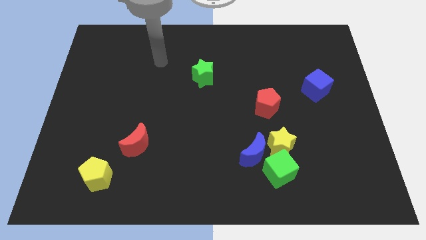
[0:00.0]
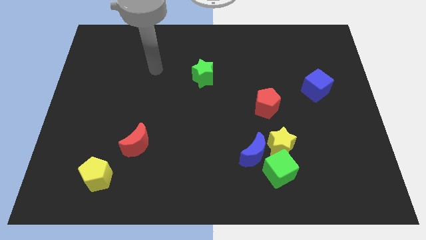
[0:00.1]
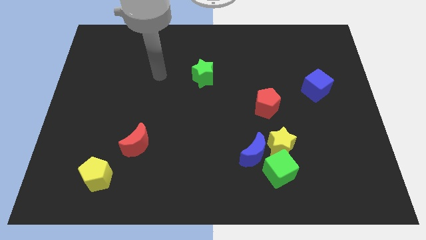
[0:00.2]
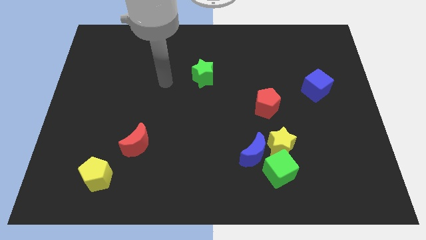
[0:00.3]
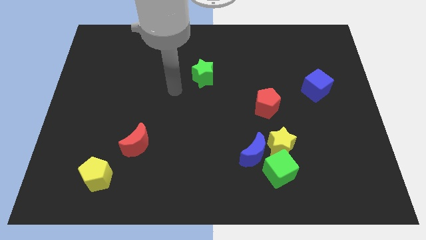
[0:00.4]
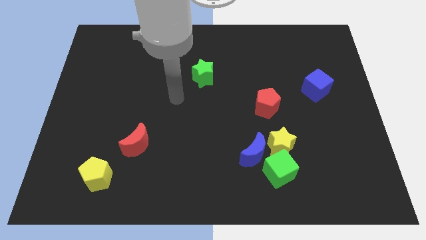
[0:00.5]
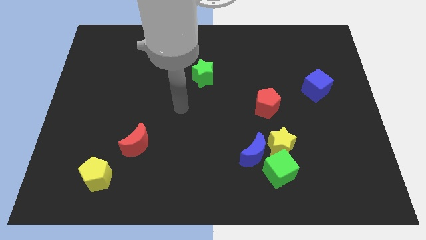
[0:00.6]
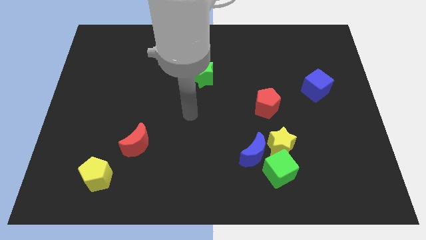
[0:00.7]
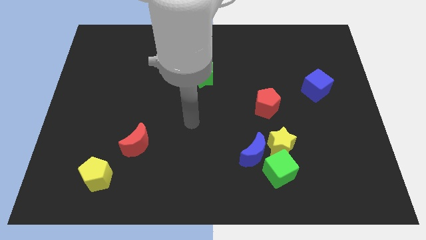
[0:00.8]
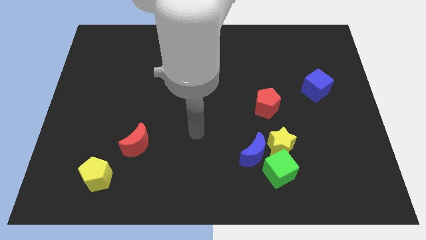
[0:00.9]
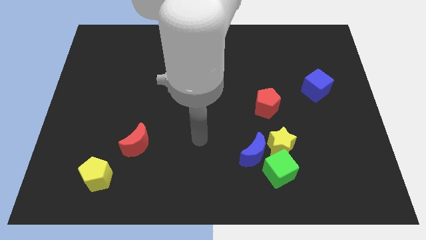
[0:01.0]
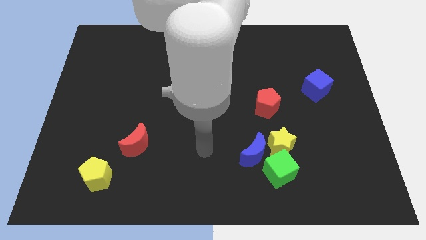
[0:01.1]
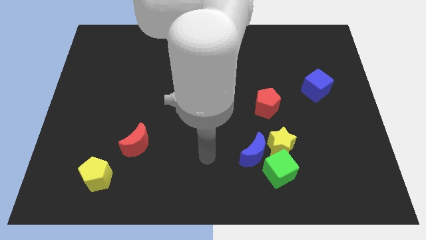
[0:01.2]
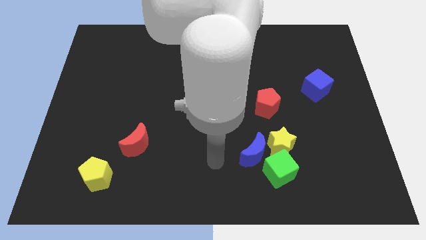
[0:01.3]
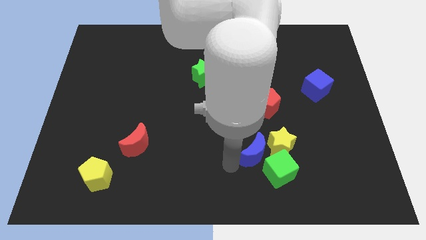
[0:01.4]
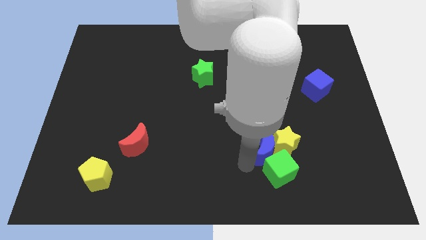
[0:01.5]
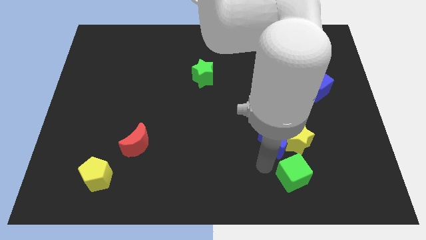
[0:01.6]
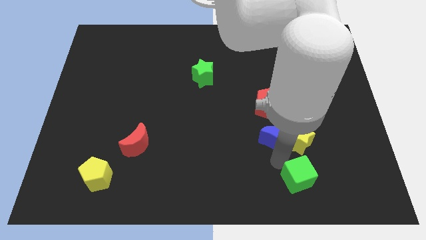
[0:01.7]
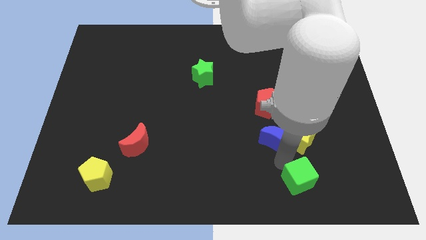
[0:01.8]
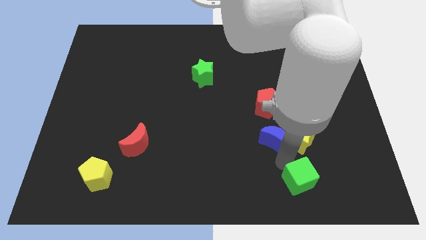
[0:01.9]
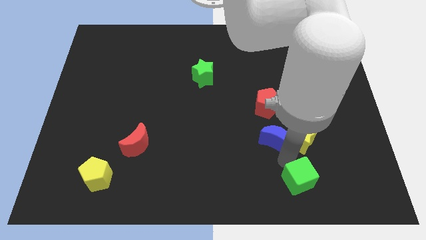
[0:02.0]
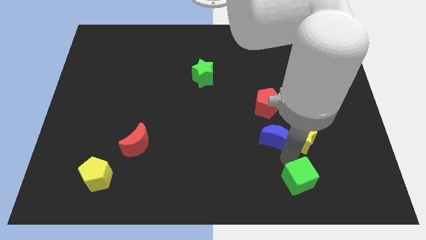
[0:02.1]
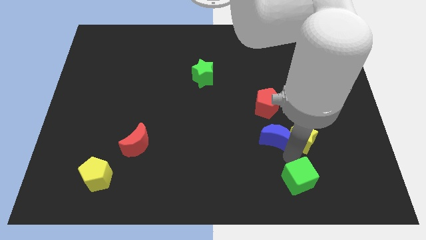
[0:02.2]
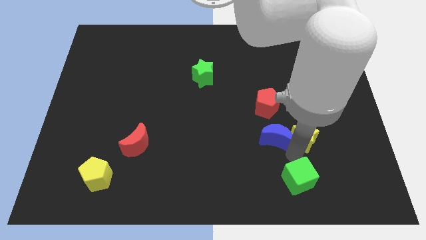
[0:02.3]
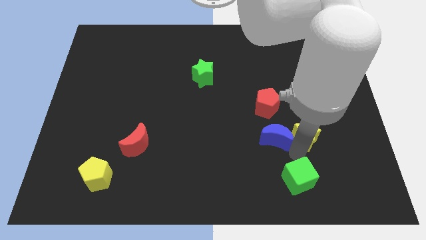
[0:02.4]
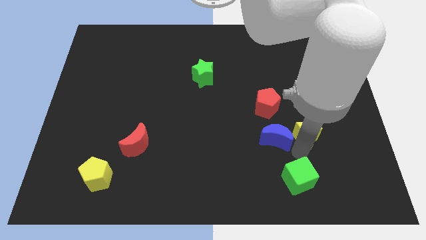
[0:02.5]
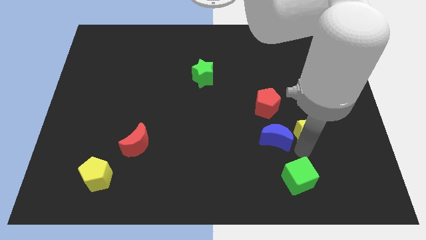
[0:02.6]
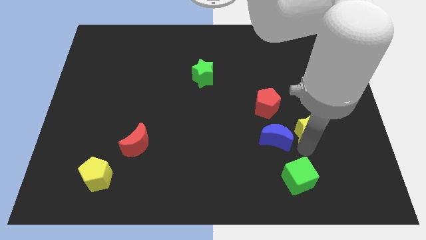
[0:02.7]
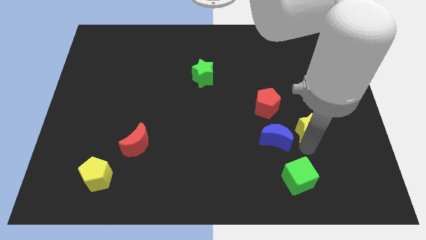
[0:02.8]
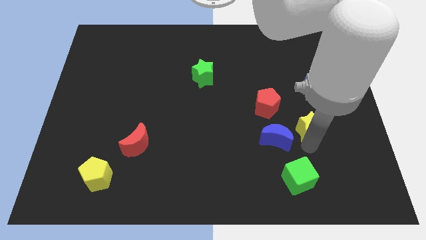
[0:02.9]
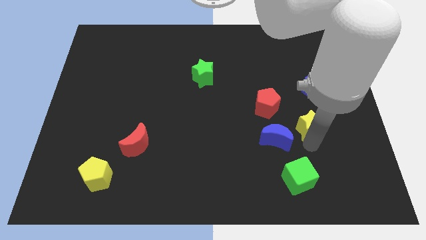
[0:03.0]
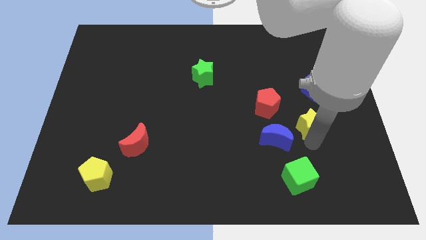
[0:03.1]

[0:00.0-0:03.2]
separate the yellow star from the green cube and blue moon

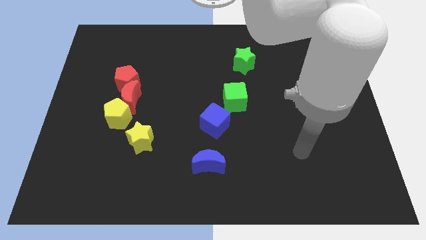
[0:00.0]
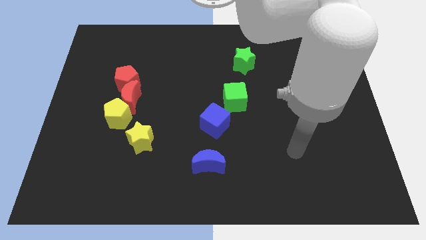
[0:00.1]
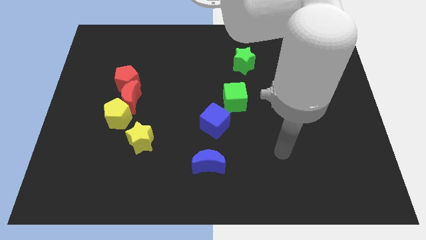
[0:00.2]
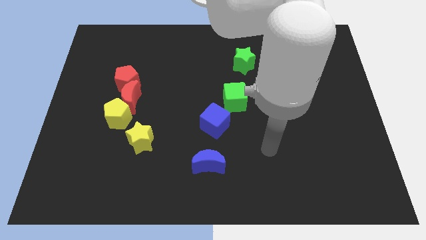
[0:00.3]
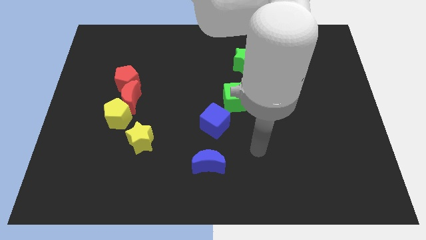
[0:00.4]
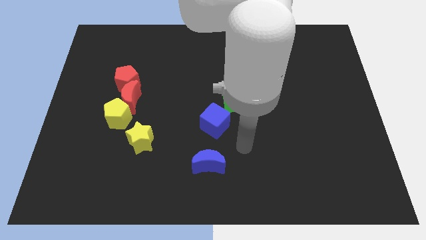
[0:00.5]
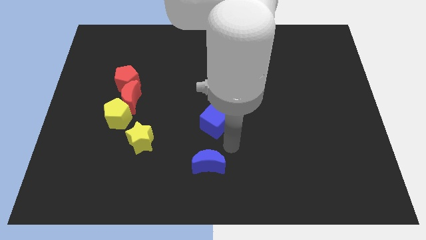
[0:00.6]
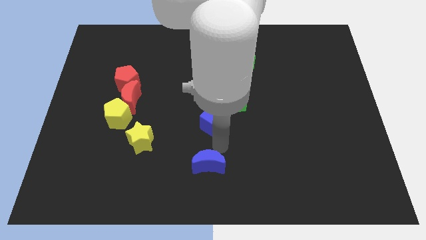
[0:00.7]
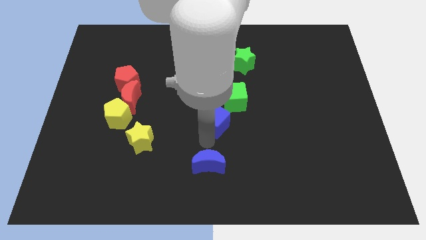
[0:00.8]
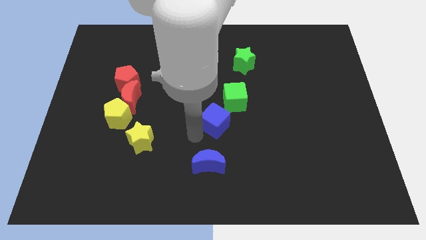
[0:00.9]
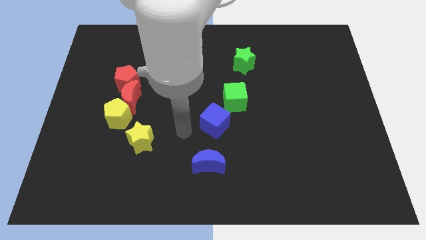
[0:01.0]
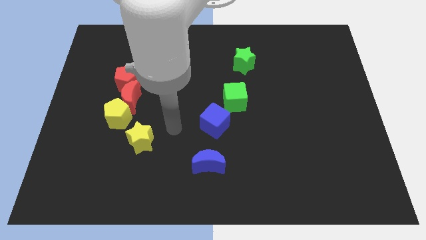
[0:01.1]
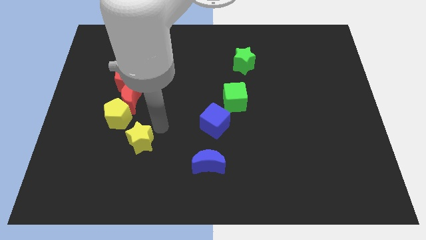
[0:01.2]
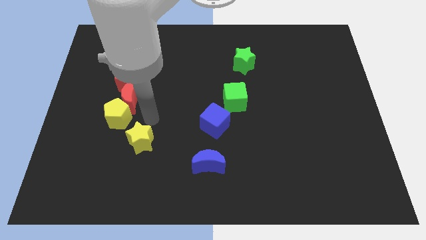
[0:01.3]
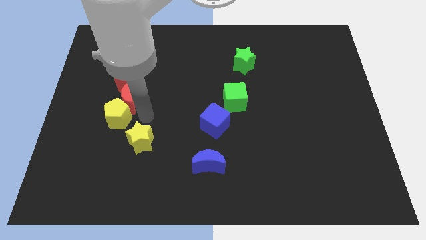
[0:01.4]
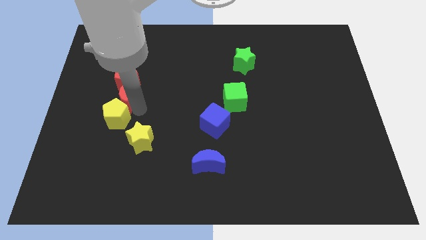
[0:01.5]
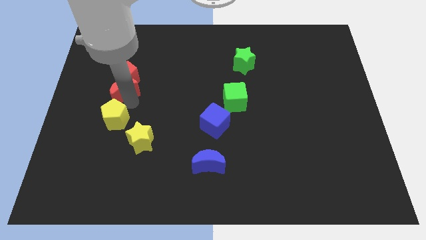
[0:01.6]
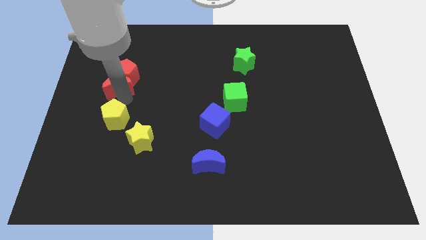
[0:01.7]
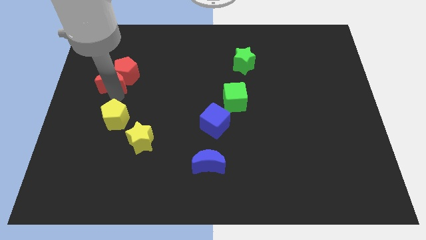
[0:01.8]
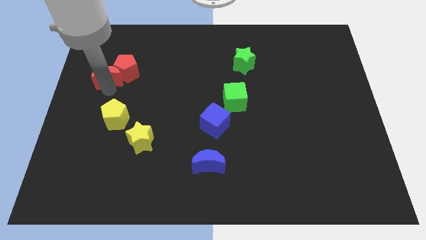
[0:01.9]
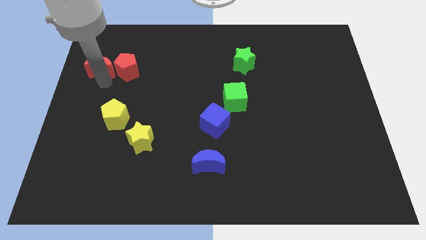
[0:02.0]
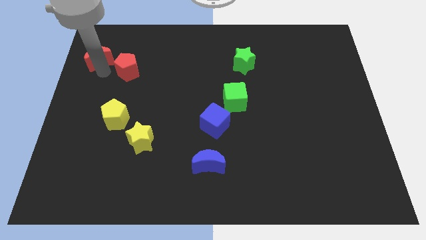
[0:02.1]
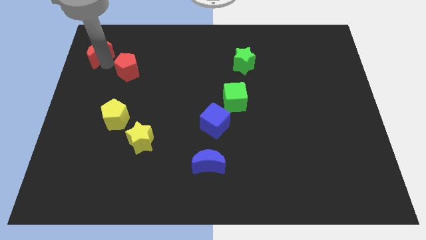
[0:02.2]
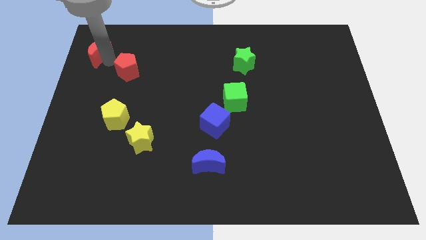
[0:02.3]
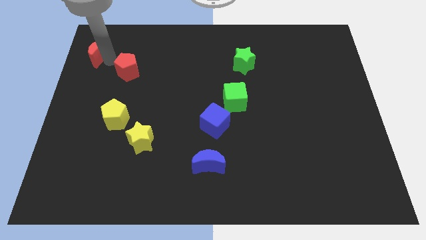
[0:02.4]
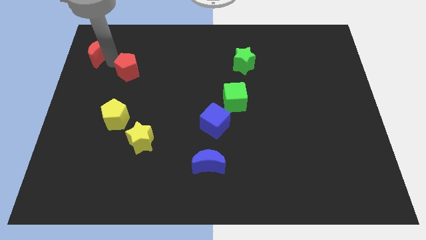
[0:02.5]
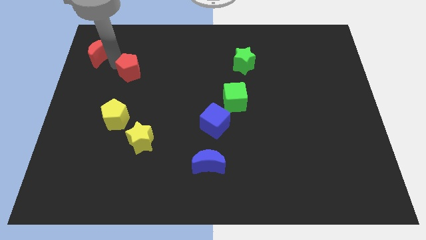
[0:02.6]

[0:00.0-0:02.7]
separate the red pentagon from the red moon

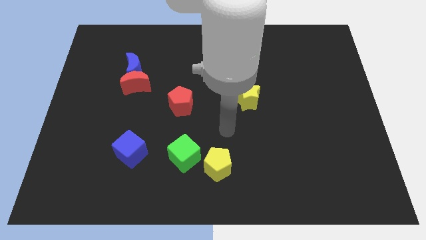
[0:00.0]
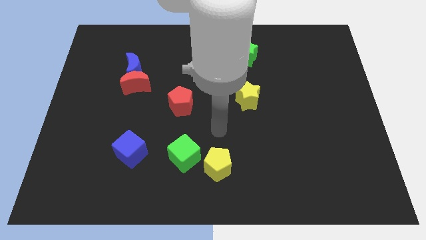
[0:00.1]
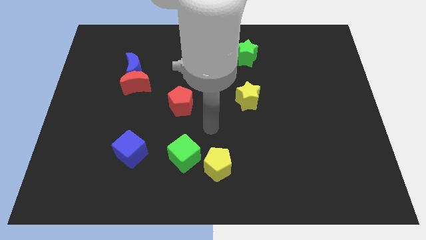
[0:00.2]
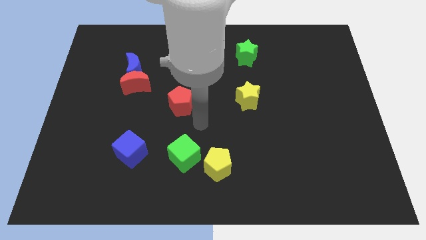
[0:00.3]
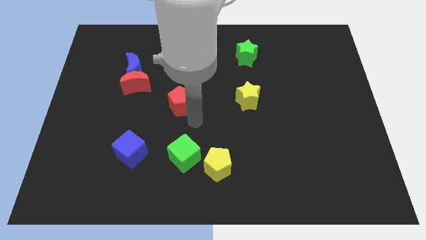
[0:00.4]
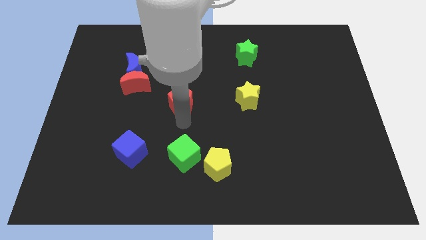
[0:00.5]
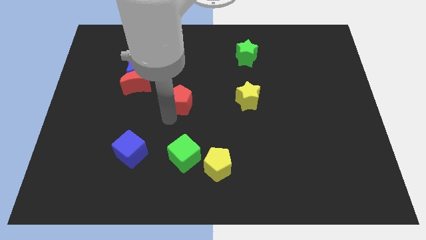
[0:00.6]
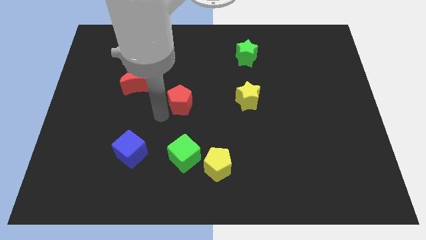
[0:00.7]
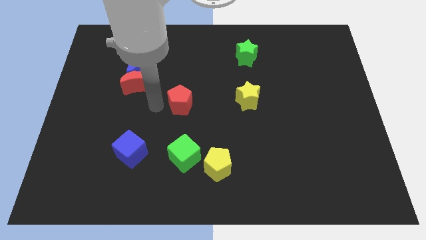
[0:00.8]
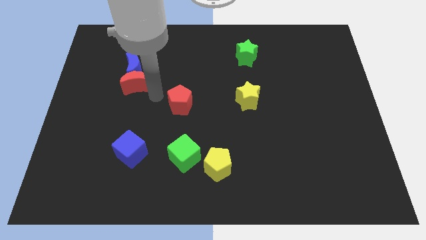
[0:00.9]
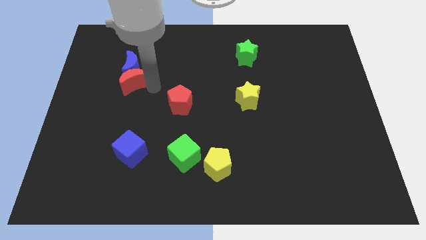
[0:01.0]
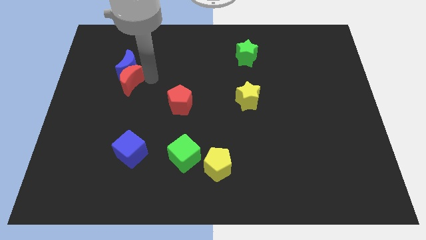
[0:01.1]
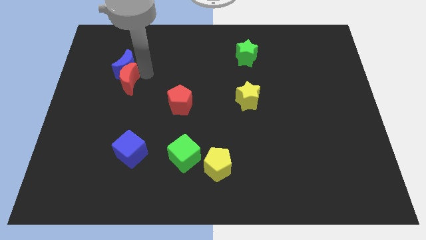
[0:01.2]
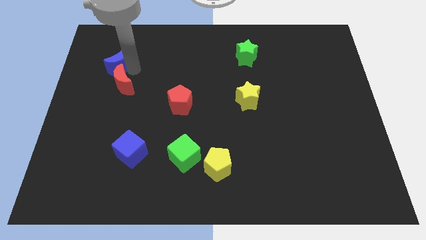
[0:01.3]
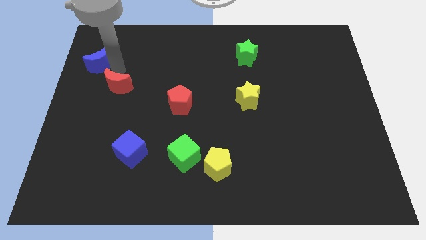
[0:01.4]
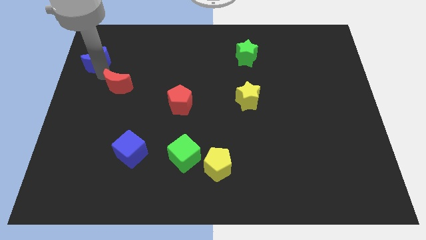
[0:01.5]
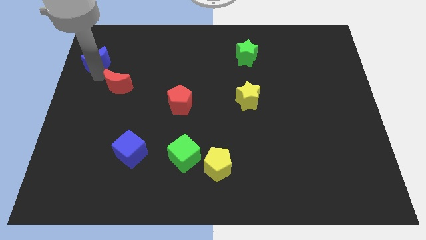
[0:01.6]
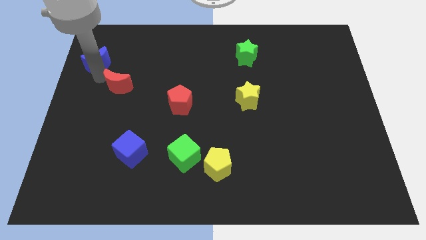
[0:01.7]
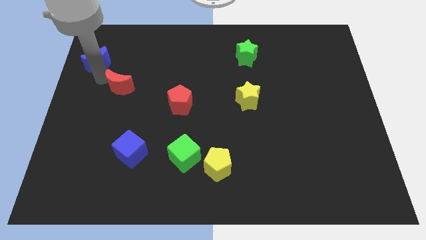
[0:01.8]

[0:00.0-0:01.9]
separate the red moon from the blue moon

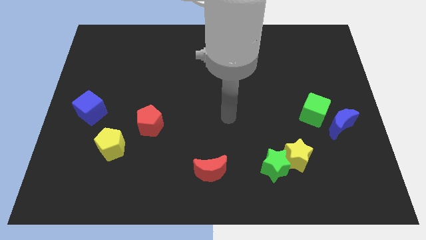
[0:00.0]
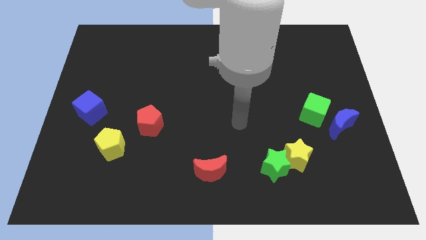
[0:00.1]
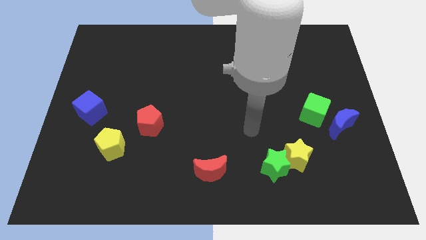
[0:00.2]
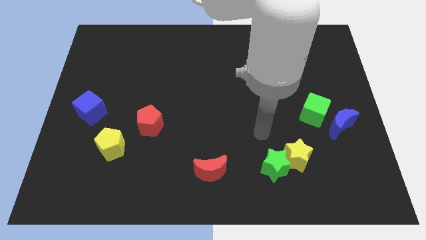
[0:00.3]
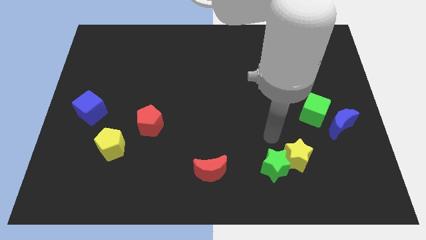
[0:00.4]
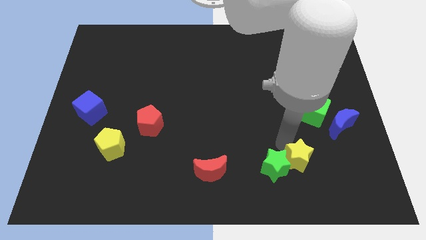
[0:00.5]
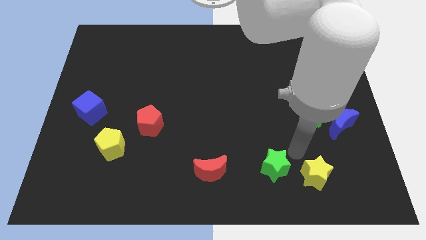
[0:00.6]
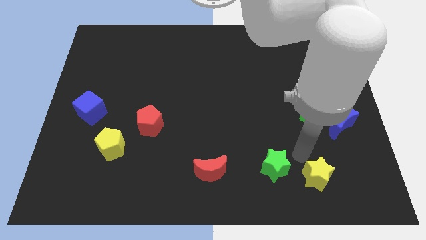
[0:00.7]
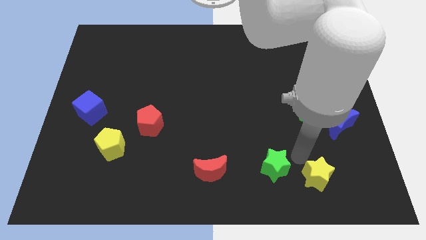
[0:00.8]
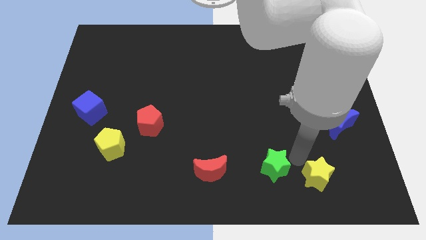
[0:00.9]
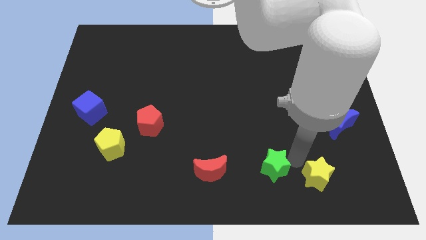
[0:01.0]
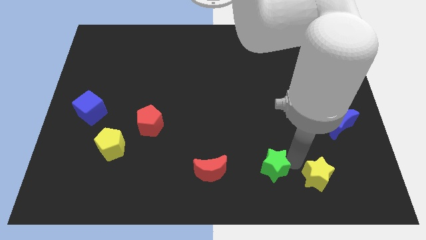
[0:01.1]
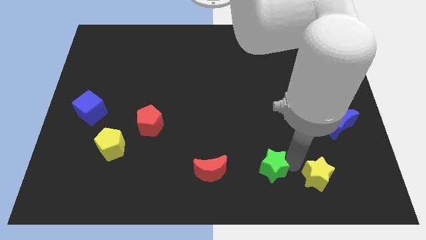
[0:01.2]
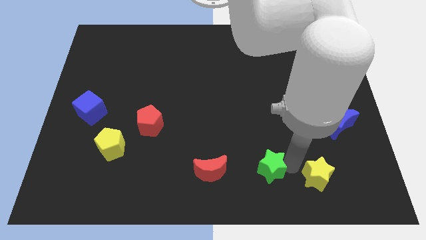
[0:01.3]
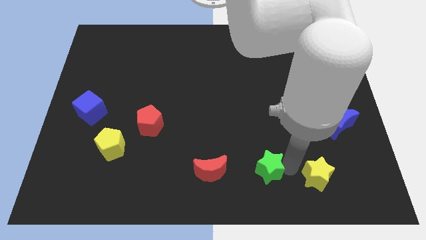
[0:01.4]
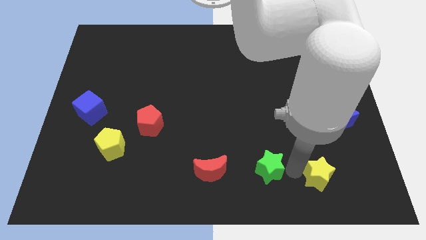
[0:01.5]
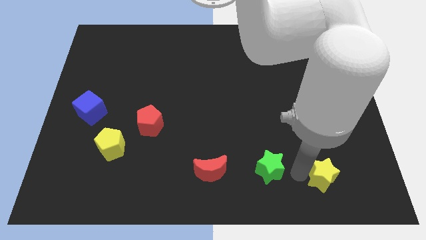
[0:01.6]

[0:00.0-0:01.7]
move the green star away from the yellow star

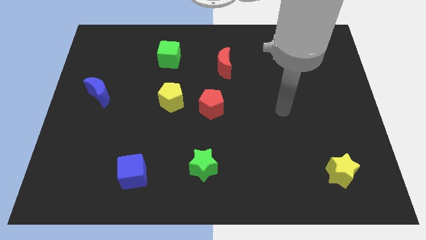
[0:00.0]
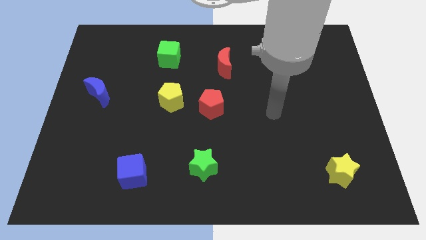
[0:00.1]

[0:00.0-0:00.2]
pull the red pentagon apart from the yellow pentagon
